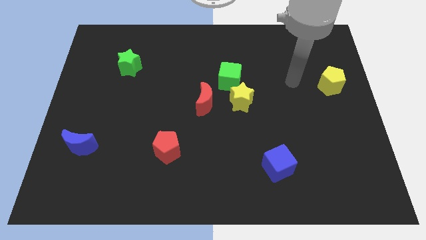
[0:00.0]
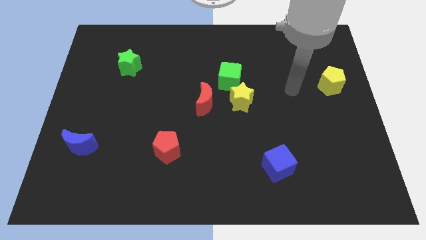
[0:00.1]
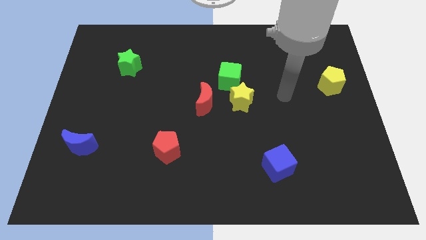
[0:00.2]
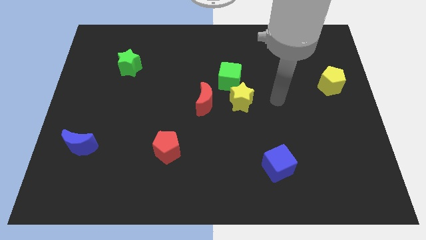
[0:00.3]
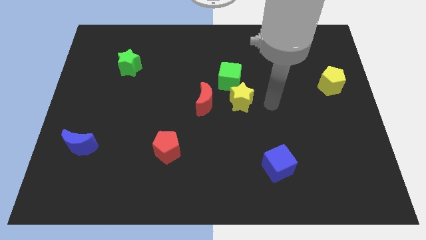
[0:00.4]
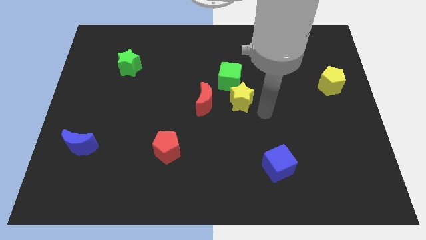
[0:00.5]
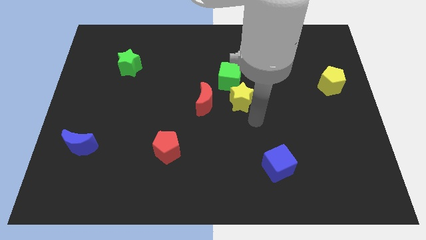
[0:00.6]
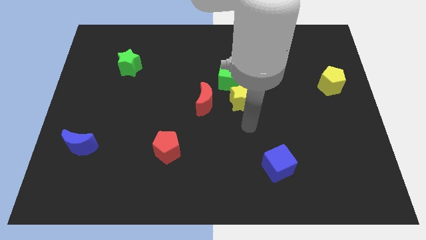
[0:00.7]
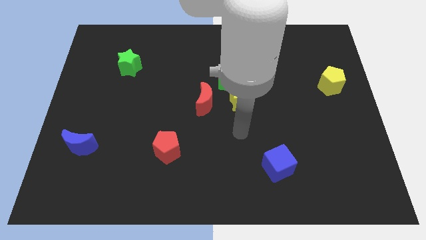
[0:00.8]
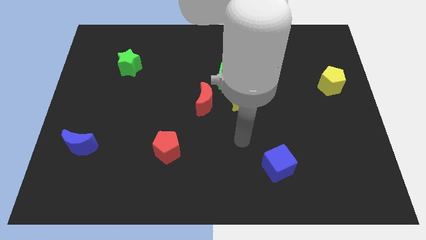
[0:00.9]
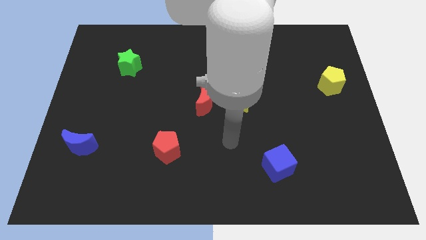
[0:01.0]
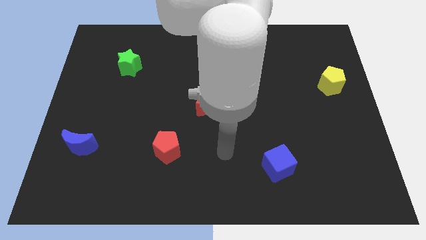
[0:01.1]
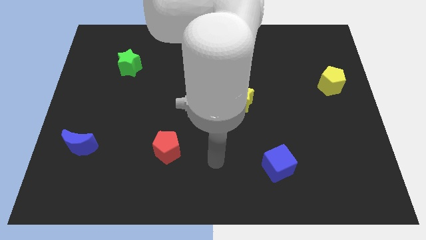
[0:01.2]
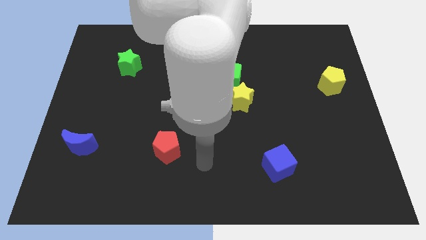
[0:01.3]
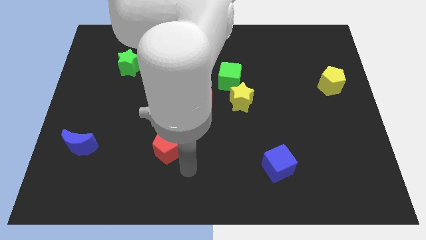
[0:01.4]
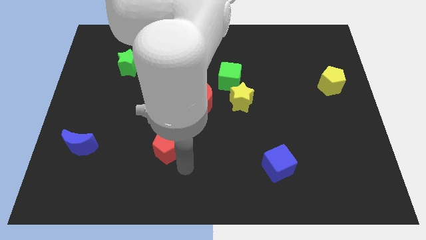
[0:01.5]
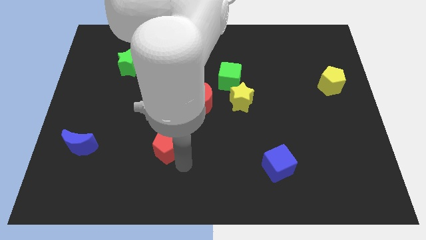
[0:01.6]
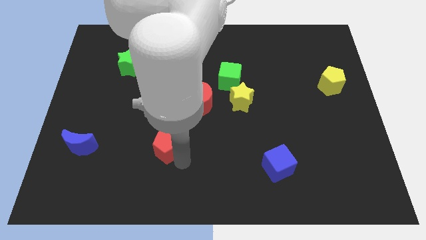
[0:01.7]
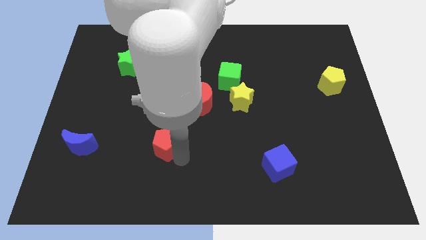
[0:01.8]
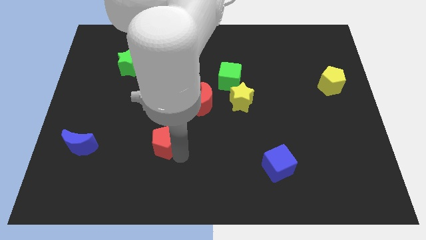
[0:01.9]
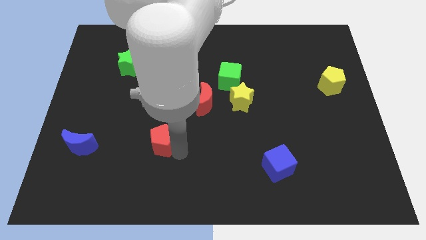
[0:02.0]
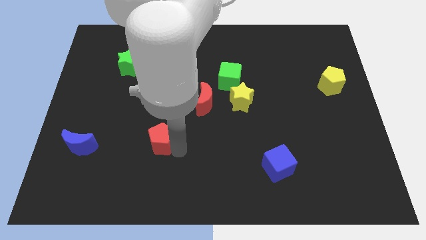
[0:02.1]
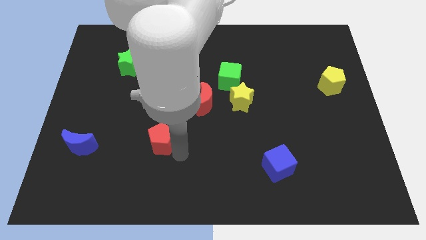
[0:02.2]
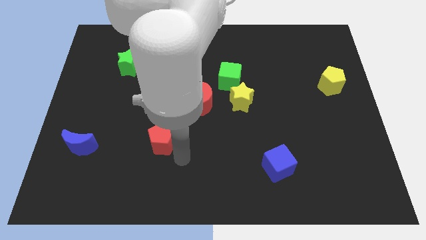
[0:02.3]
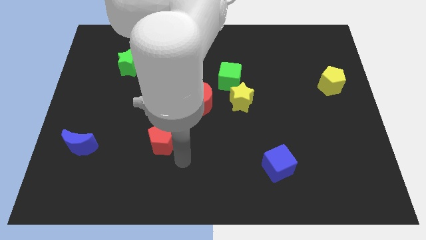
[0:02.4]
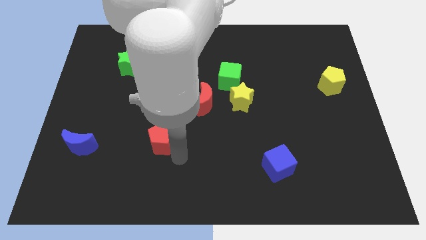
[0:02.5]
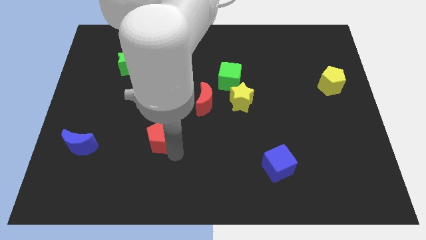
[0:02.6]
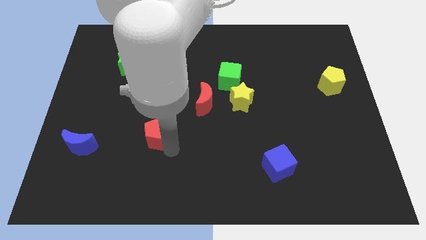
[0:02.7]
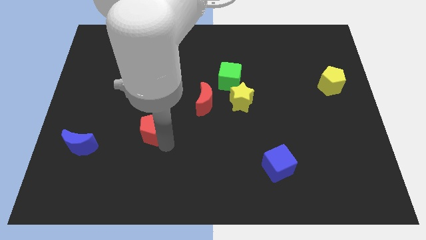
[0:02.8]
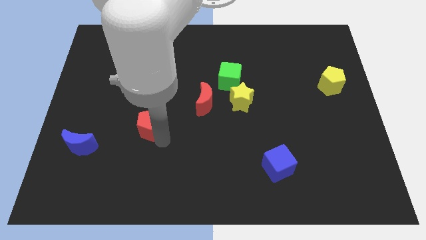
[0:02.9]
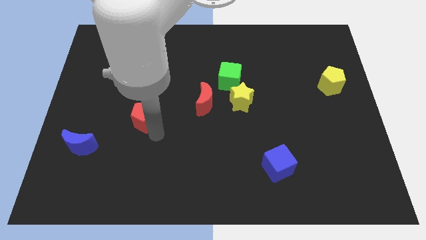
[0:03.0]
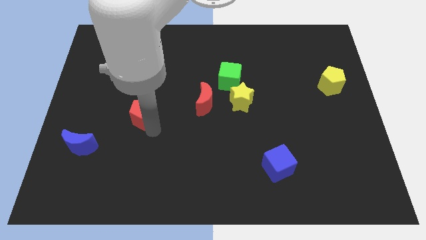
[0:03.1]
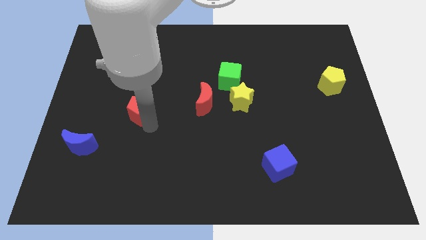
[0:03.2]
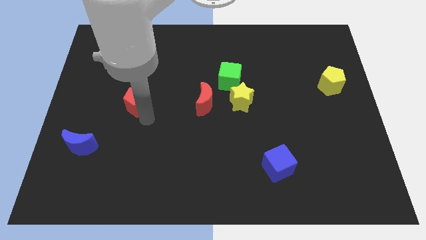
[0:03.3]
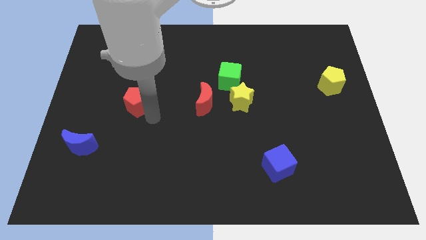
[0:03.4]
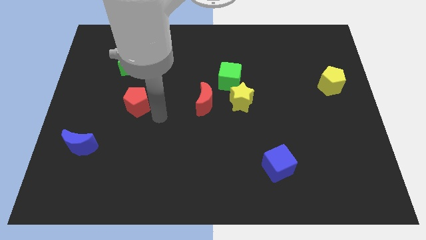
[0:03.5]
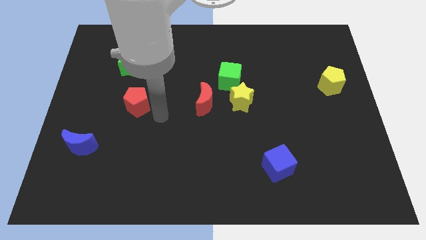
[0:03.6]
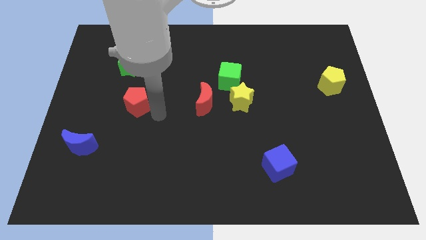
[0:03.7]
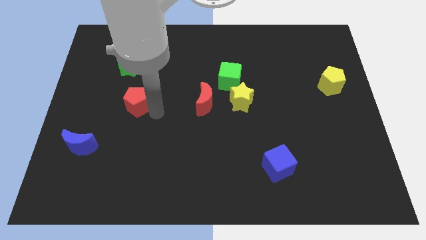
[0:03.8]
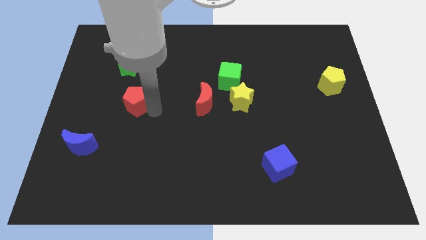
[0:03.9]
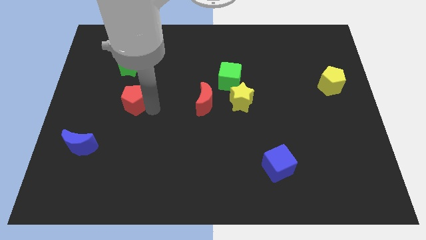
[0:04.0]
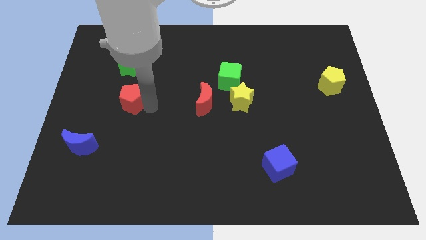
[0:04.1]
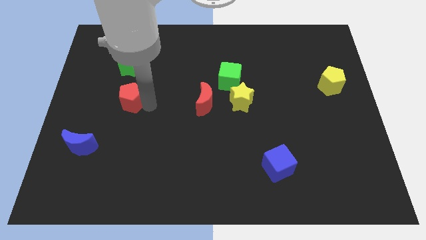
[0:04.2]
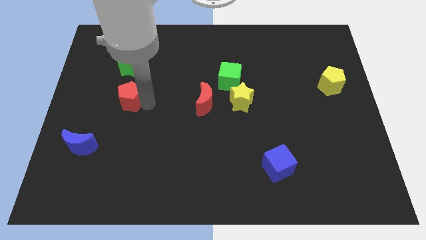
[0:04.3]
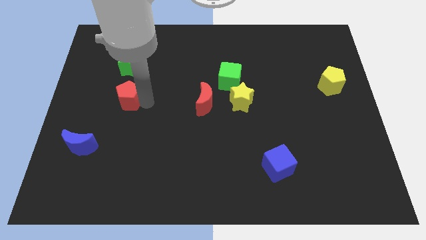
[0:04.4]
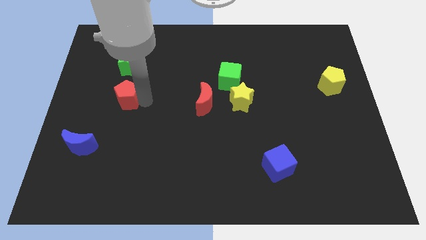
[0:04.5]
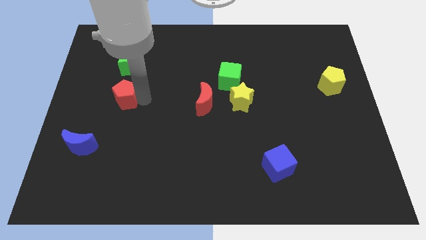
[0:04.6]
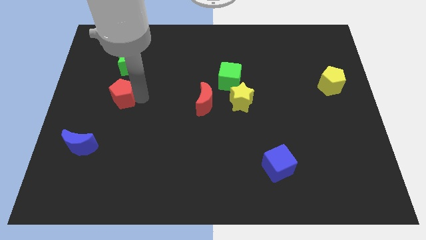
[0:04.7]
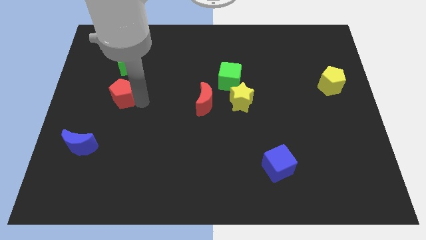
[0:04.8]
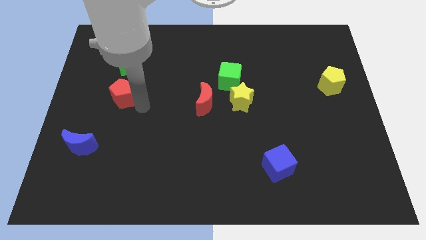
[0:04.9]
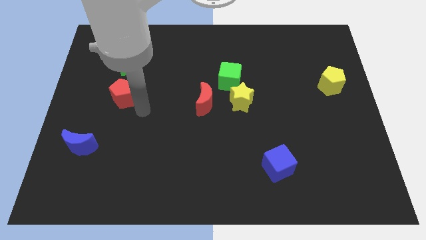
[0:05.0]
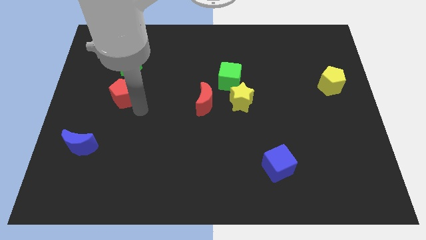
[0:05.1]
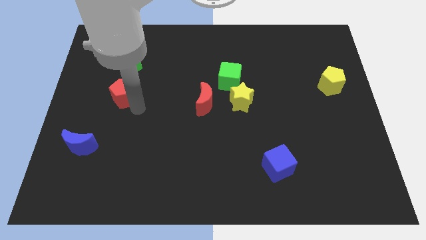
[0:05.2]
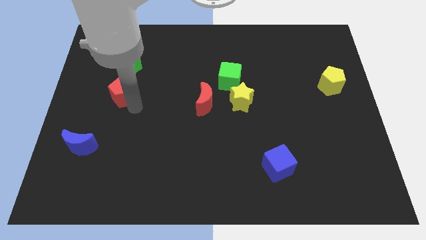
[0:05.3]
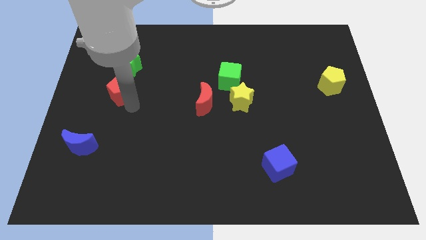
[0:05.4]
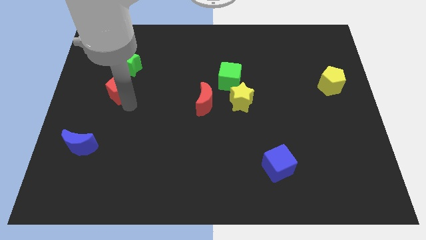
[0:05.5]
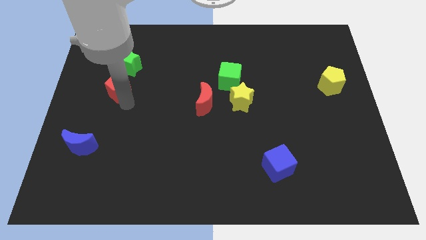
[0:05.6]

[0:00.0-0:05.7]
move the red pentagon to the bottom left of the green star

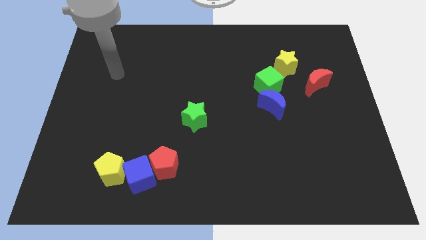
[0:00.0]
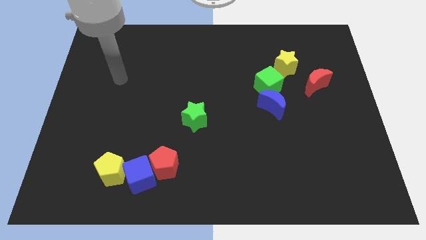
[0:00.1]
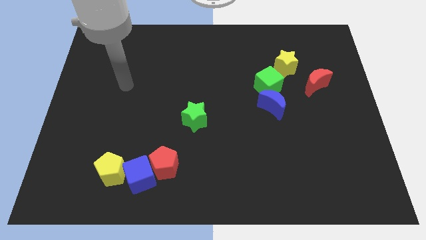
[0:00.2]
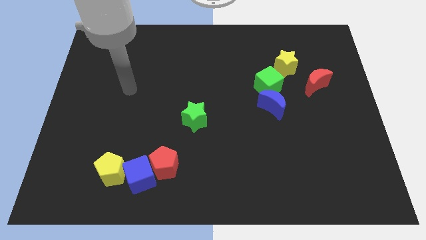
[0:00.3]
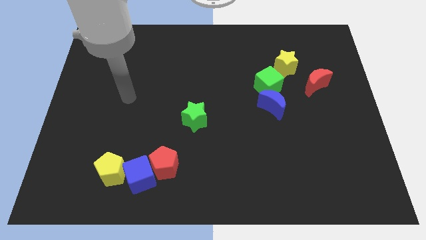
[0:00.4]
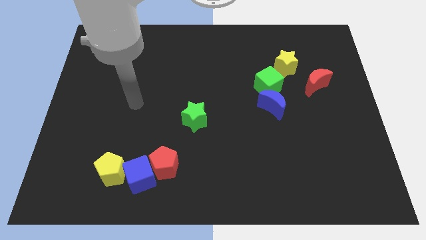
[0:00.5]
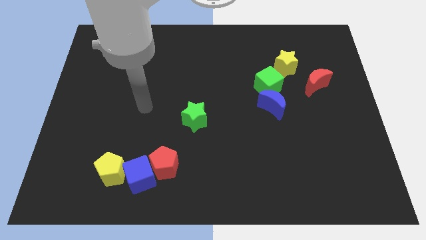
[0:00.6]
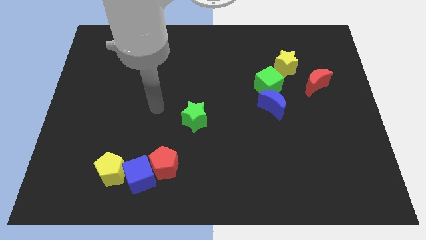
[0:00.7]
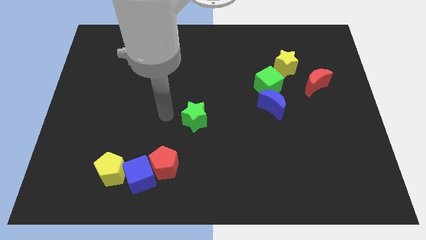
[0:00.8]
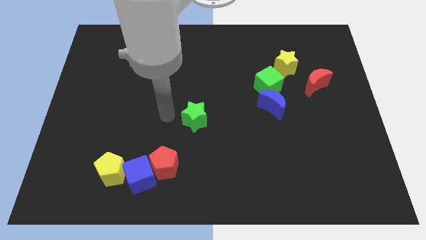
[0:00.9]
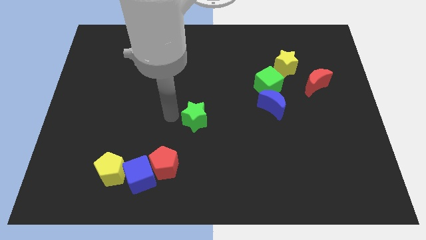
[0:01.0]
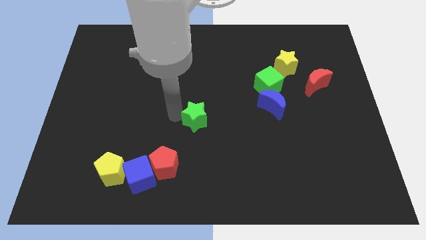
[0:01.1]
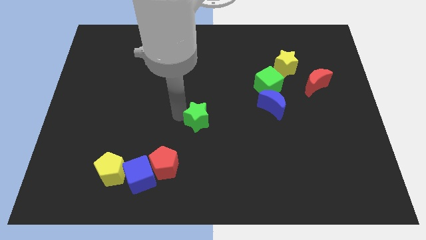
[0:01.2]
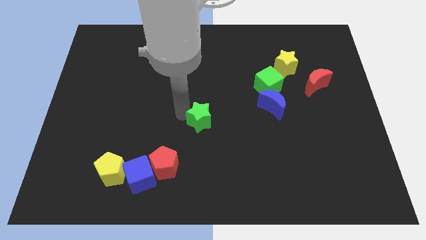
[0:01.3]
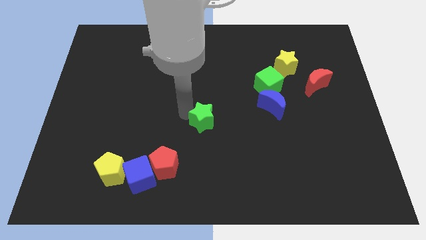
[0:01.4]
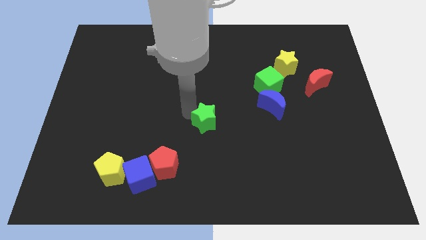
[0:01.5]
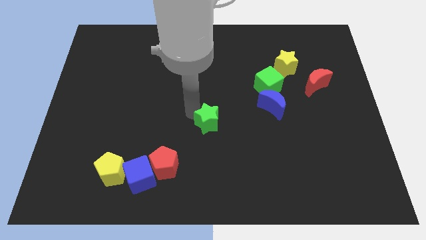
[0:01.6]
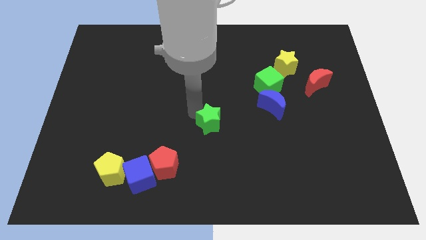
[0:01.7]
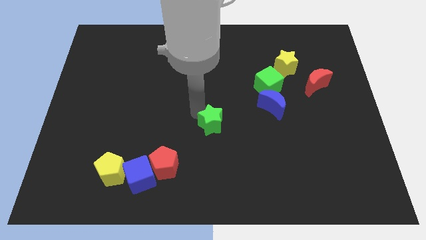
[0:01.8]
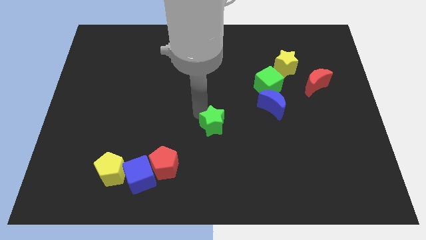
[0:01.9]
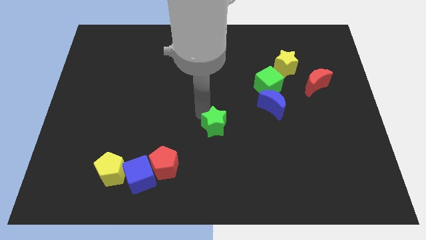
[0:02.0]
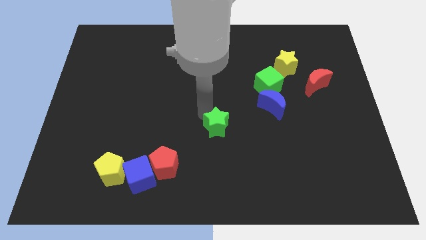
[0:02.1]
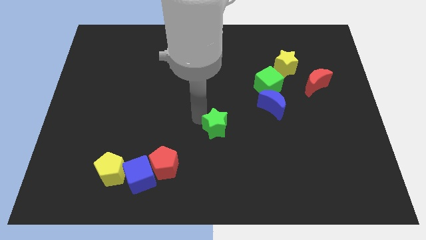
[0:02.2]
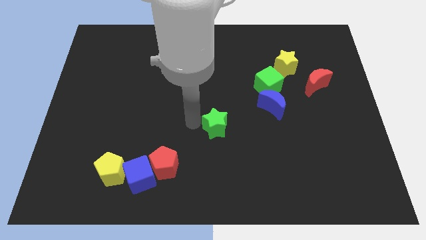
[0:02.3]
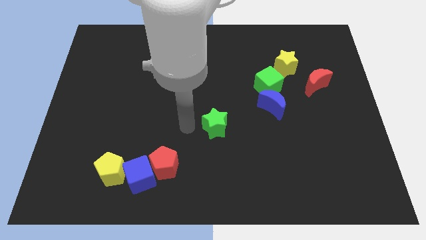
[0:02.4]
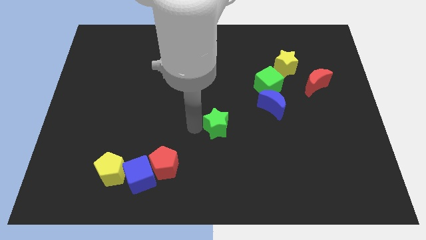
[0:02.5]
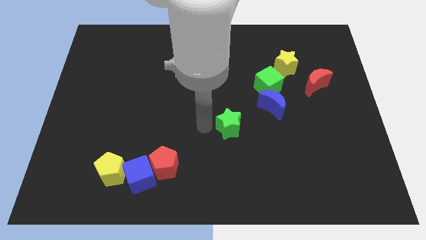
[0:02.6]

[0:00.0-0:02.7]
put the green star to the bottom left of the blue moon
